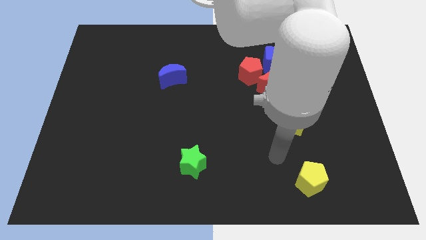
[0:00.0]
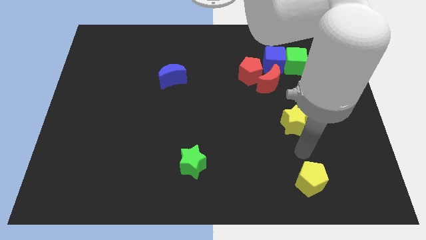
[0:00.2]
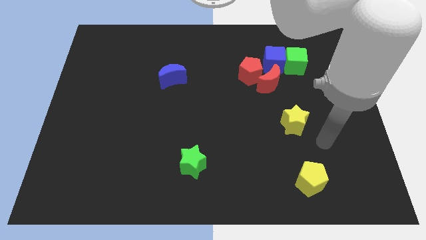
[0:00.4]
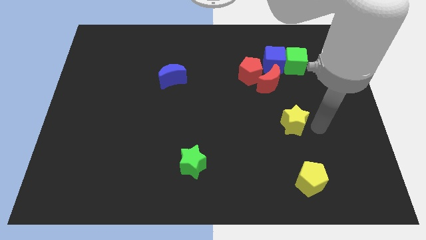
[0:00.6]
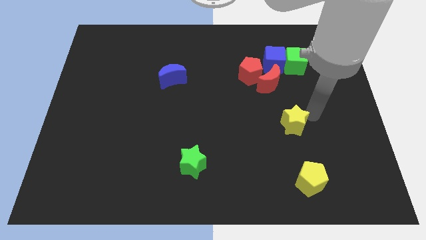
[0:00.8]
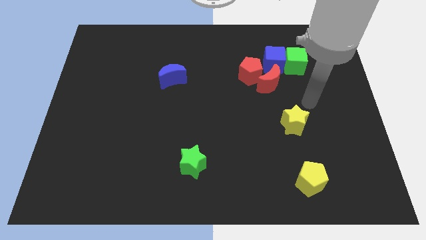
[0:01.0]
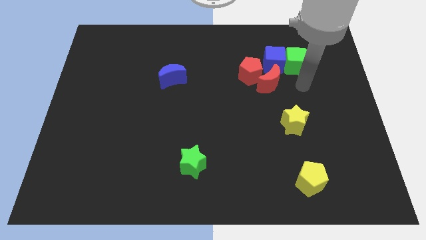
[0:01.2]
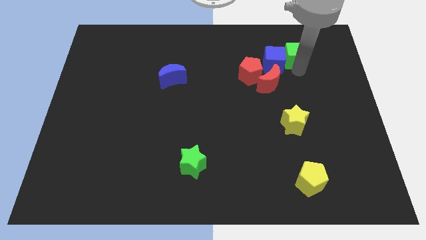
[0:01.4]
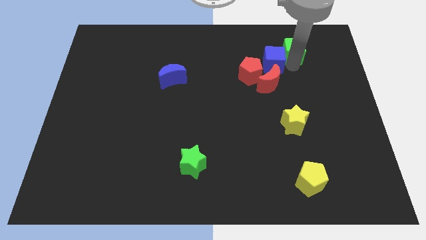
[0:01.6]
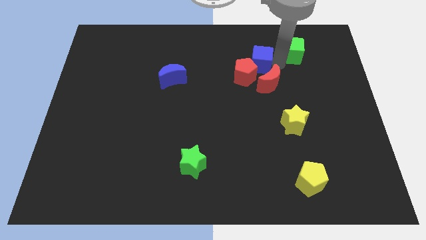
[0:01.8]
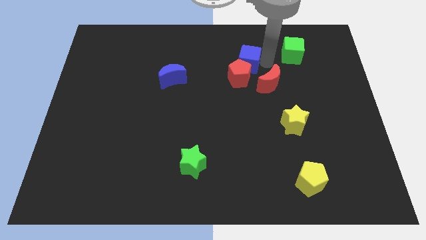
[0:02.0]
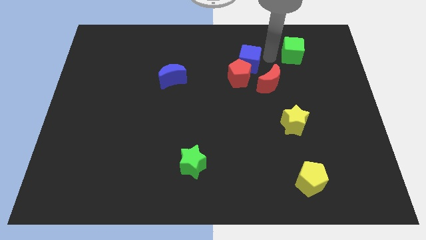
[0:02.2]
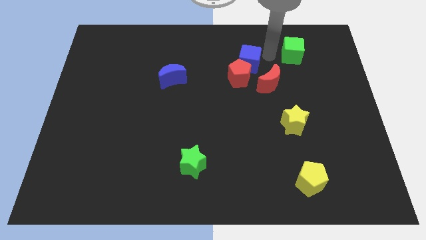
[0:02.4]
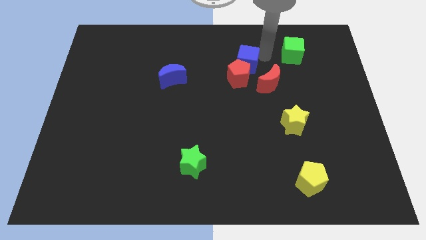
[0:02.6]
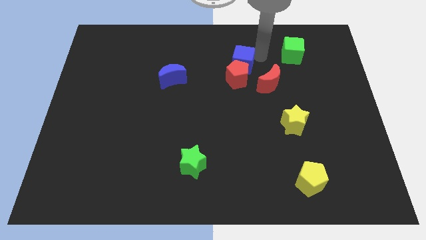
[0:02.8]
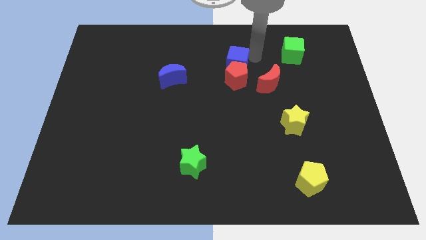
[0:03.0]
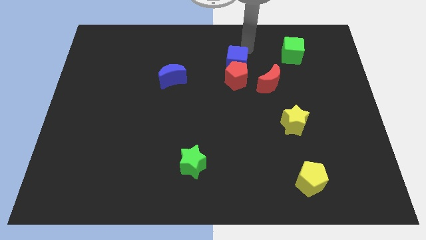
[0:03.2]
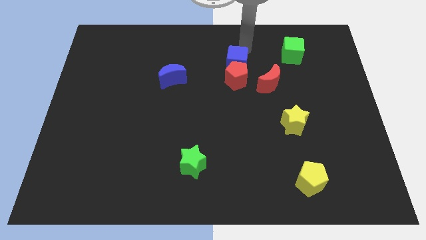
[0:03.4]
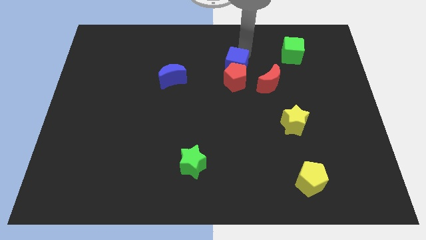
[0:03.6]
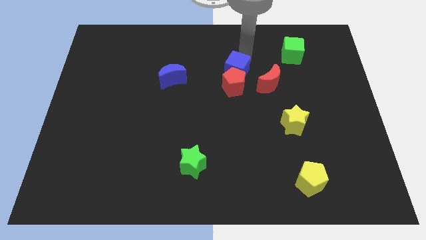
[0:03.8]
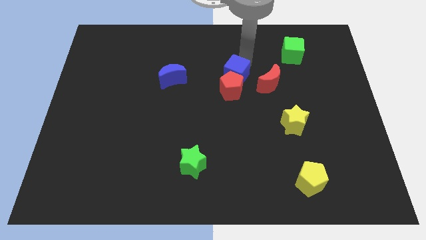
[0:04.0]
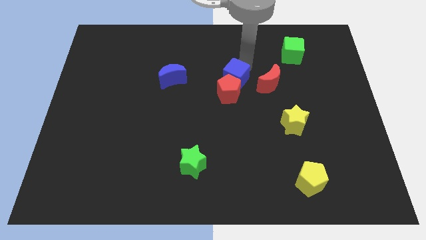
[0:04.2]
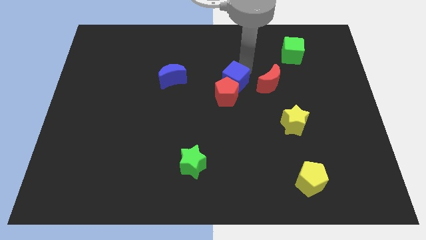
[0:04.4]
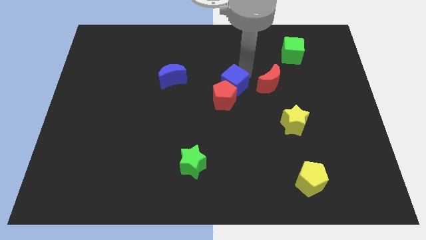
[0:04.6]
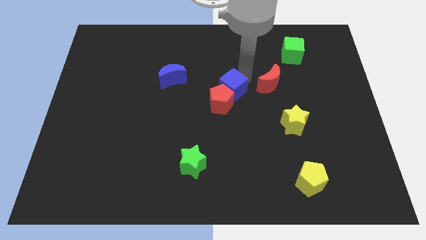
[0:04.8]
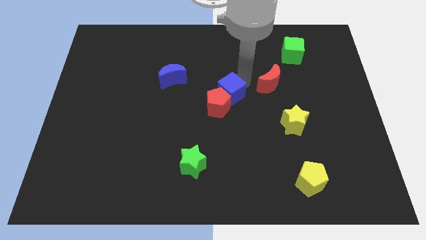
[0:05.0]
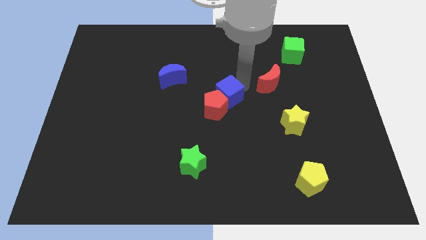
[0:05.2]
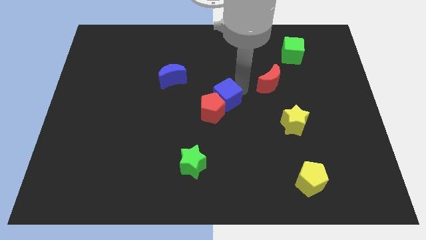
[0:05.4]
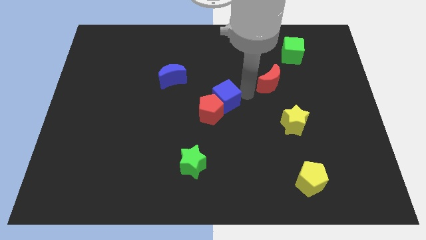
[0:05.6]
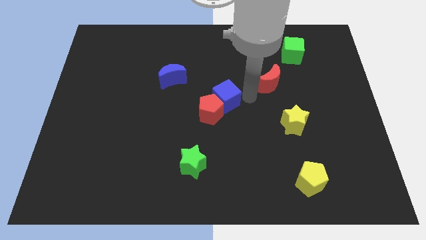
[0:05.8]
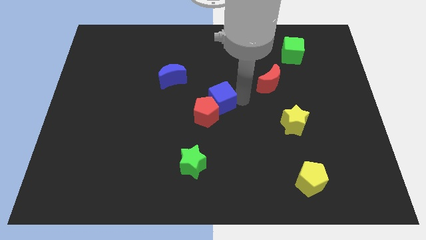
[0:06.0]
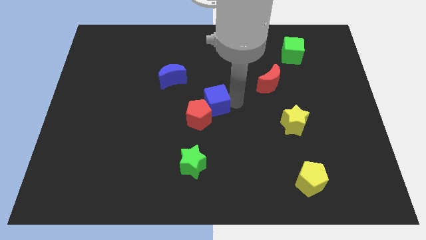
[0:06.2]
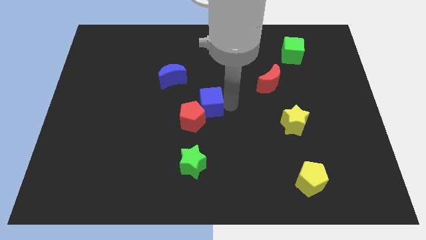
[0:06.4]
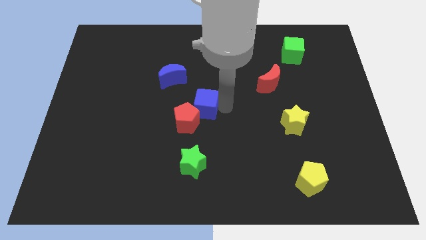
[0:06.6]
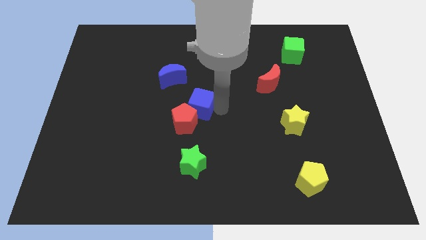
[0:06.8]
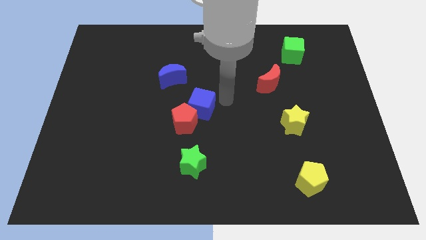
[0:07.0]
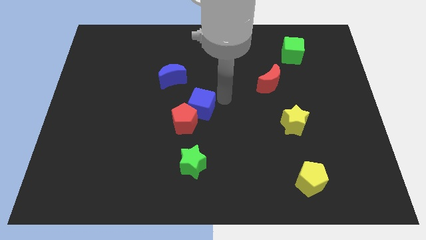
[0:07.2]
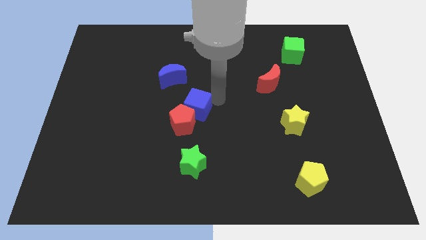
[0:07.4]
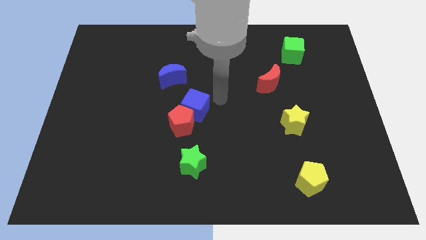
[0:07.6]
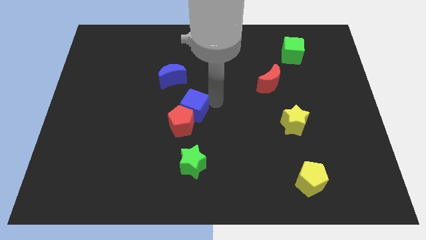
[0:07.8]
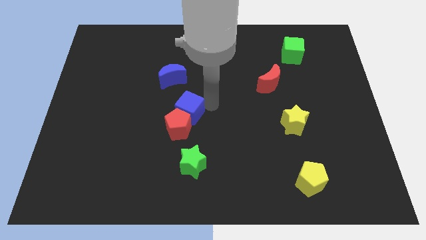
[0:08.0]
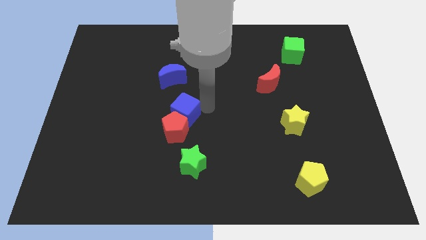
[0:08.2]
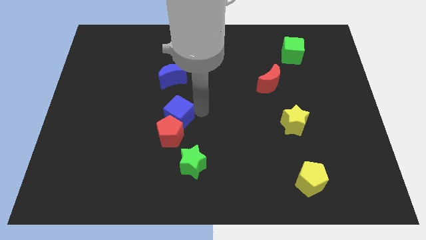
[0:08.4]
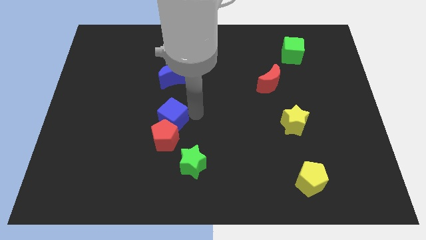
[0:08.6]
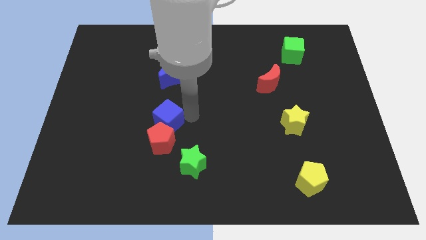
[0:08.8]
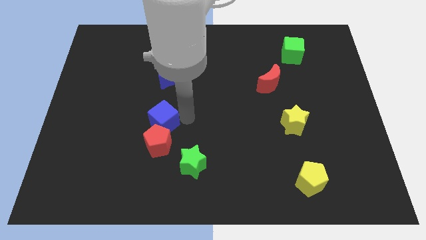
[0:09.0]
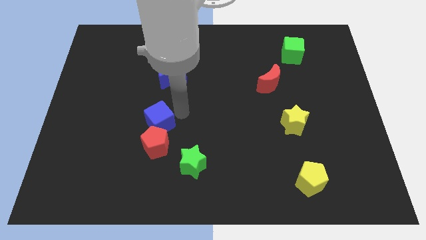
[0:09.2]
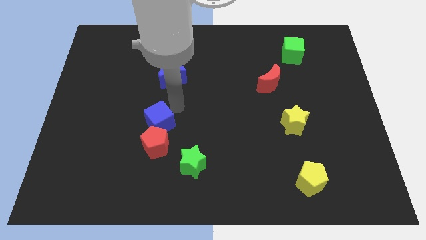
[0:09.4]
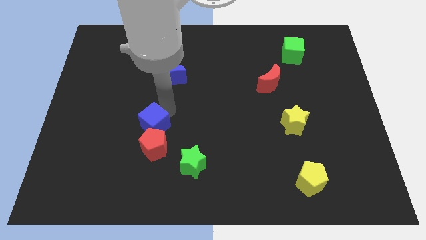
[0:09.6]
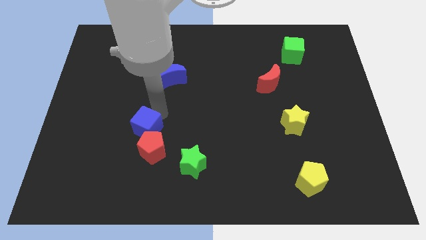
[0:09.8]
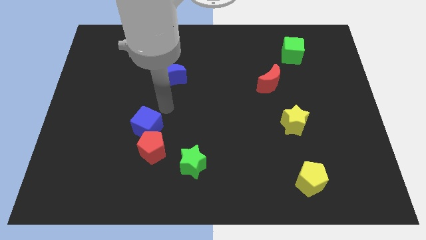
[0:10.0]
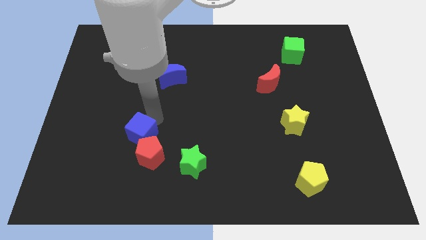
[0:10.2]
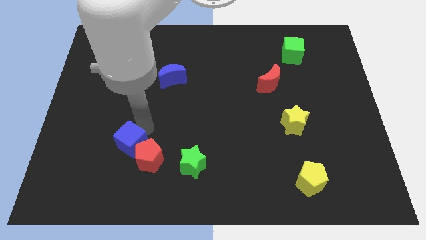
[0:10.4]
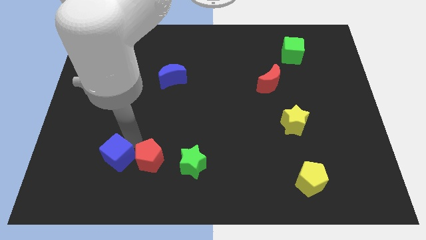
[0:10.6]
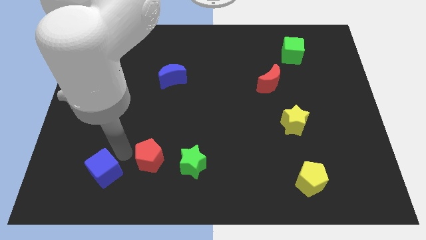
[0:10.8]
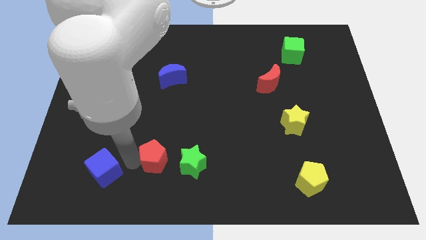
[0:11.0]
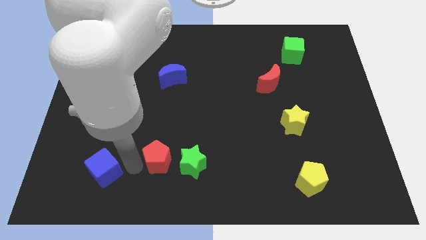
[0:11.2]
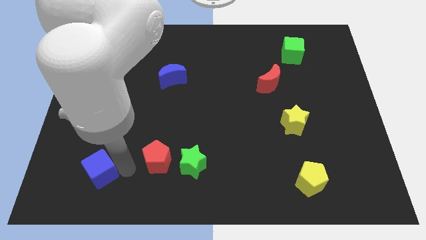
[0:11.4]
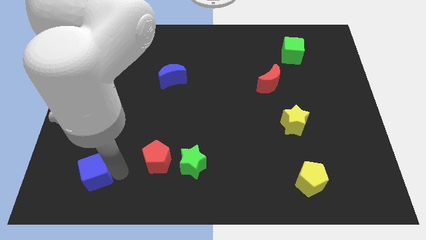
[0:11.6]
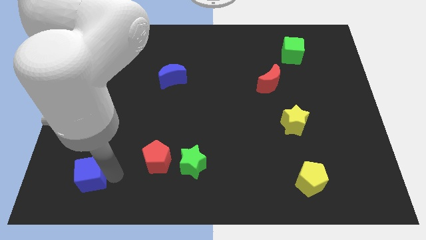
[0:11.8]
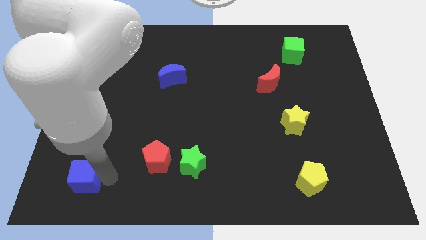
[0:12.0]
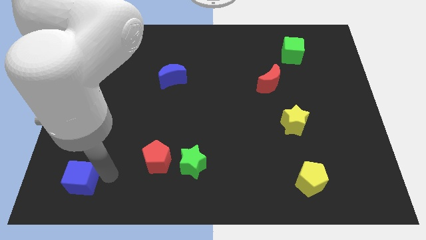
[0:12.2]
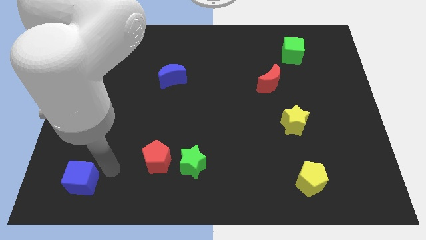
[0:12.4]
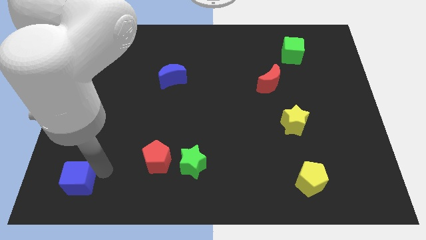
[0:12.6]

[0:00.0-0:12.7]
move the blue cube to the lower left corner
